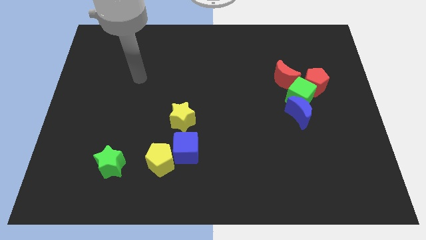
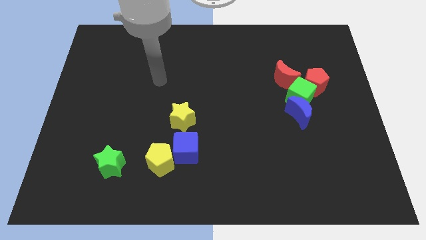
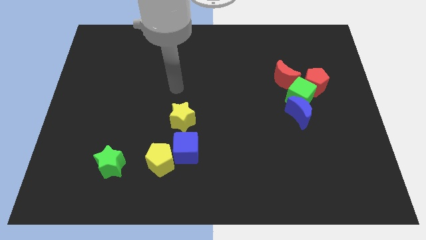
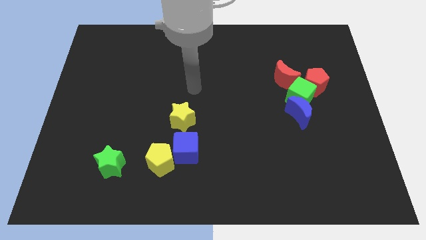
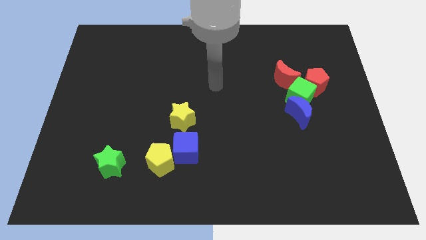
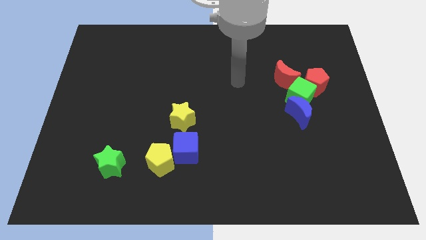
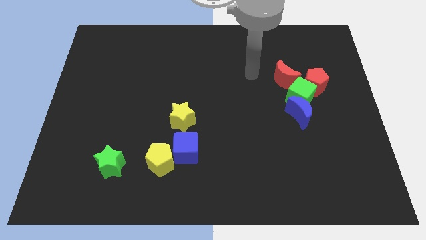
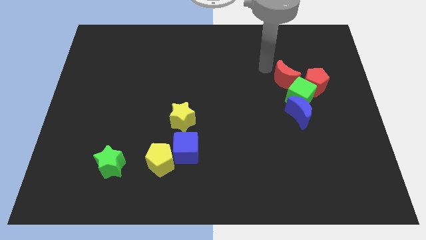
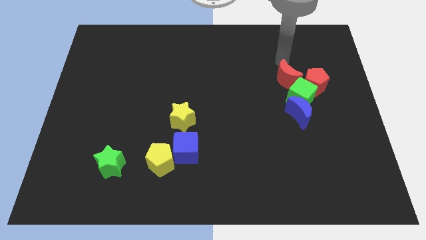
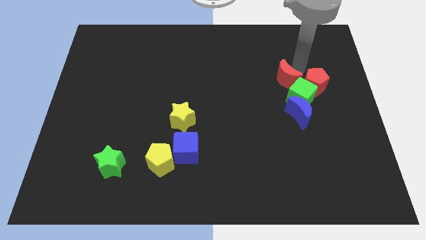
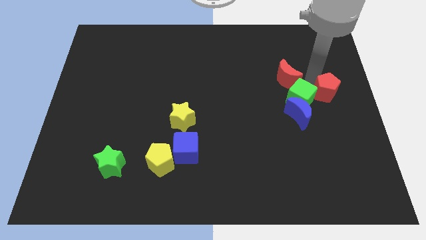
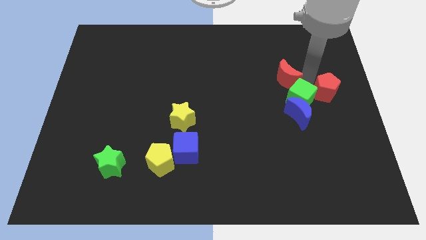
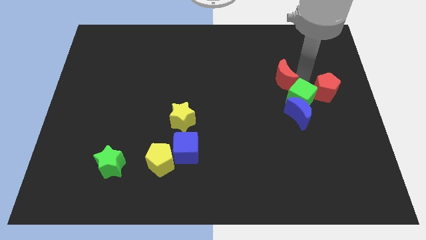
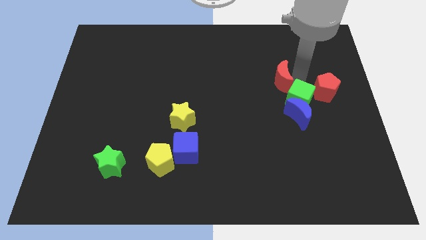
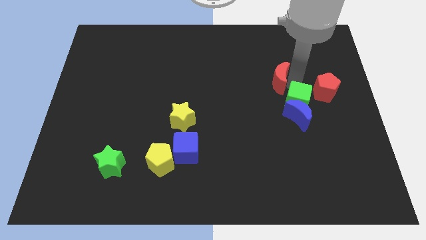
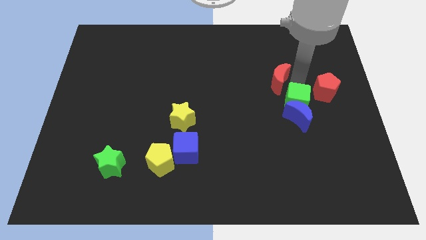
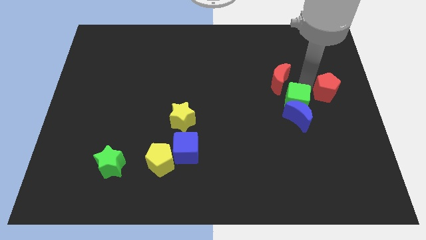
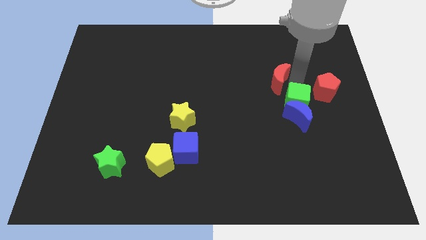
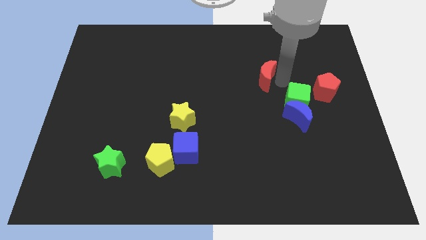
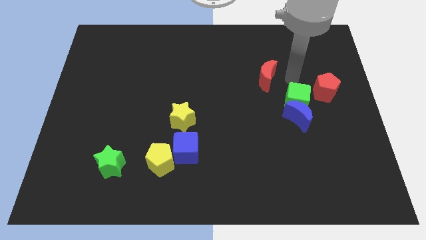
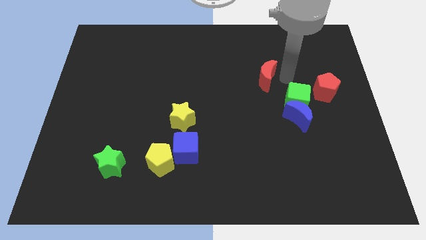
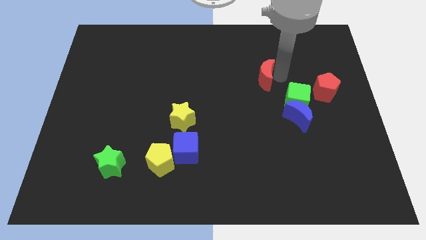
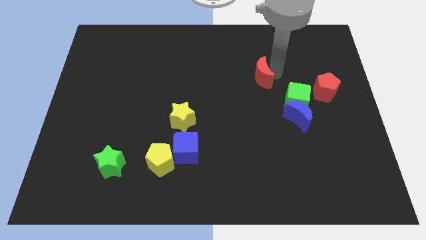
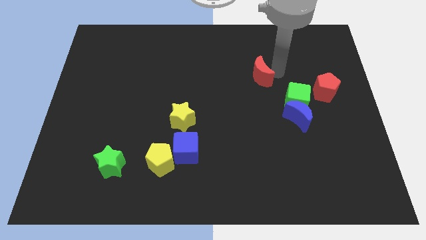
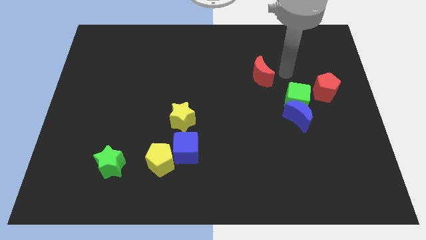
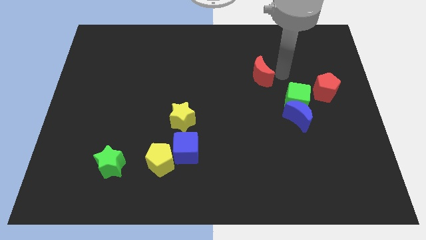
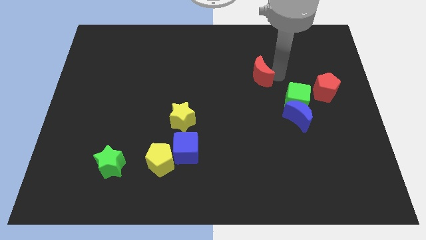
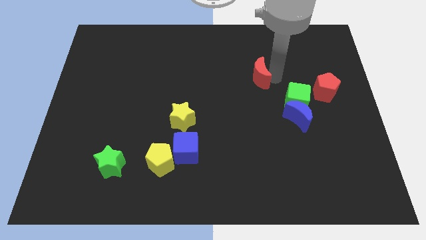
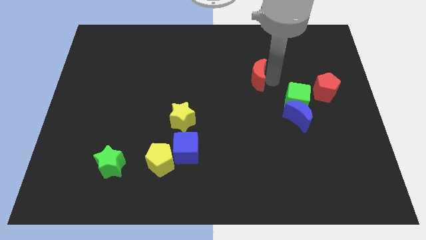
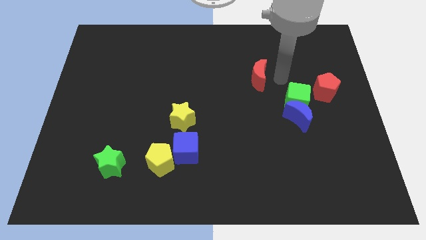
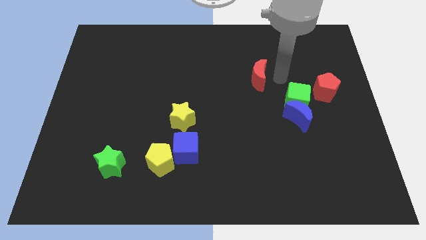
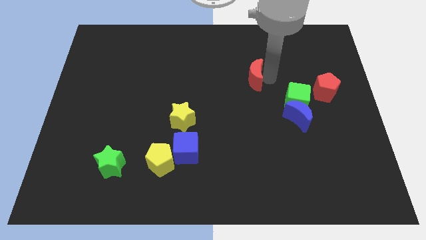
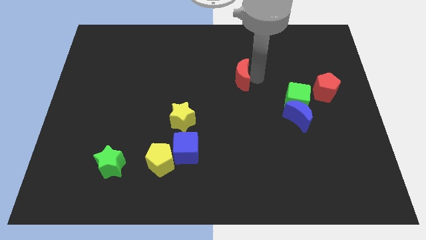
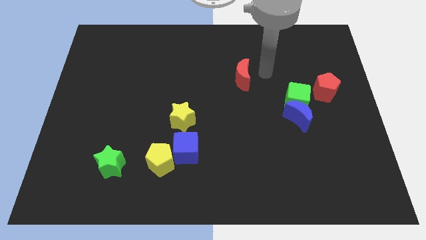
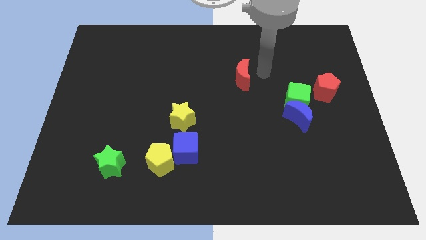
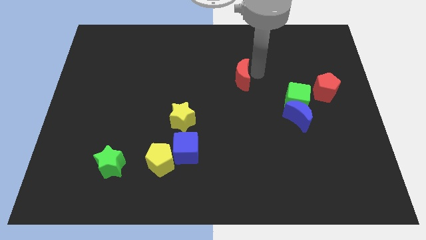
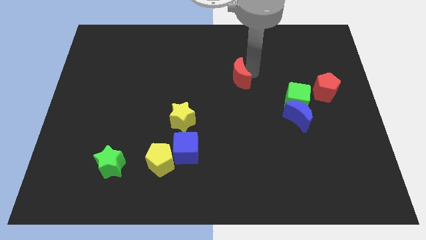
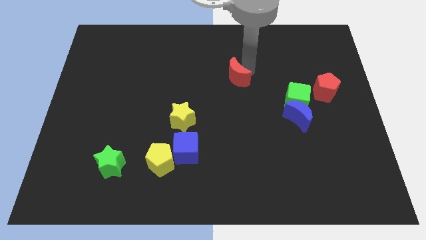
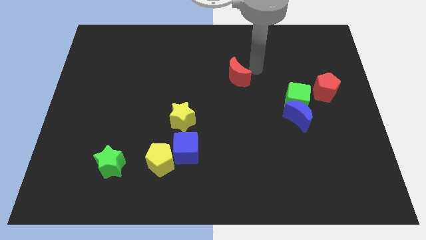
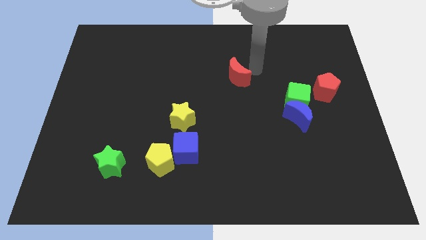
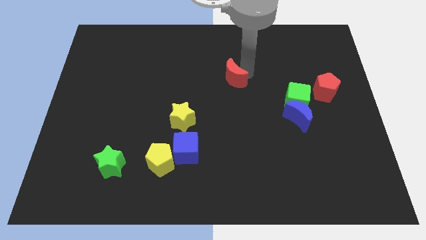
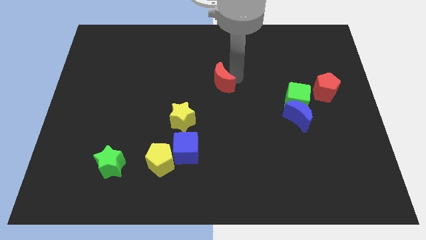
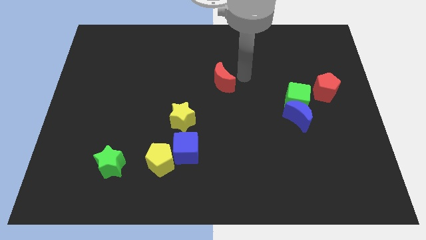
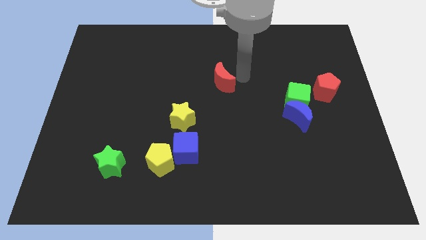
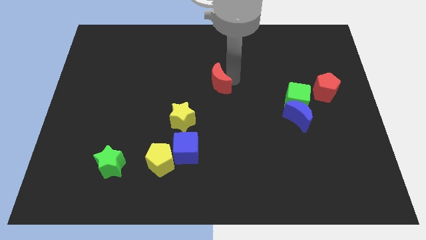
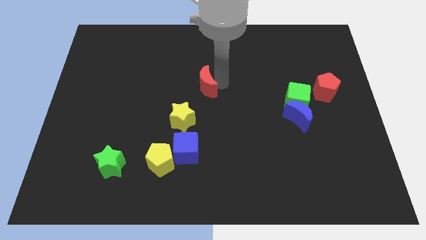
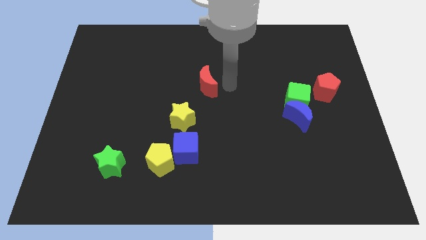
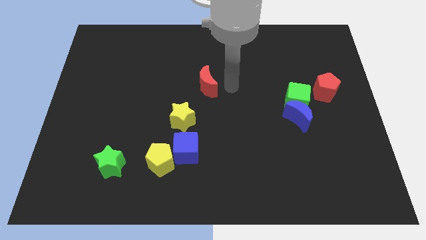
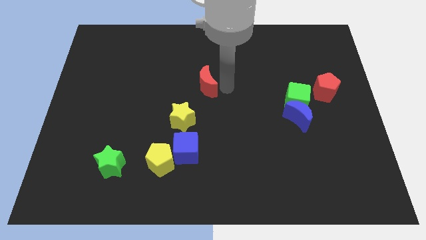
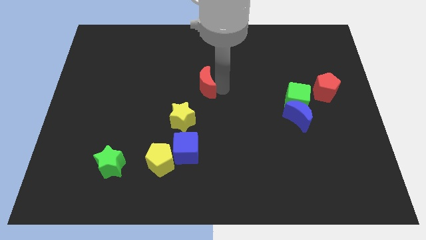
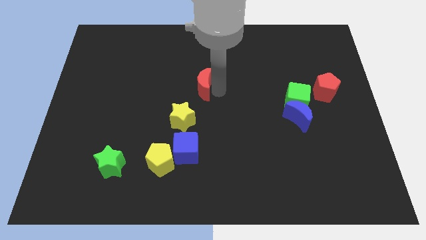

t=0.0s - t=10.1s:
slide the red moon left

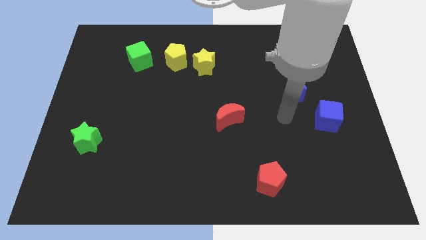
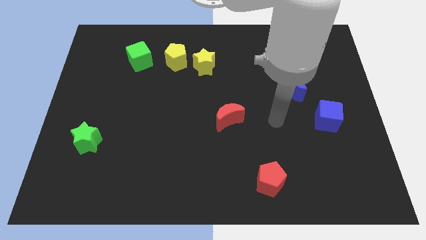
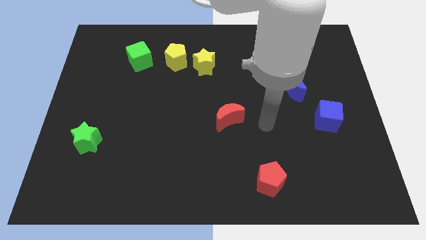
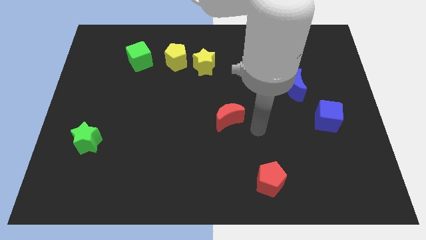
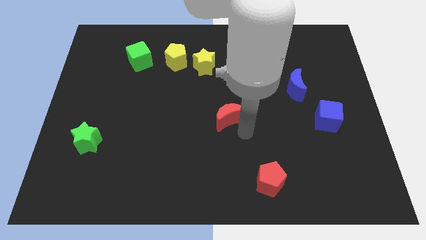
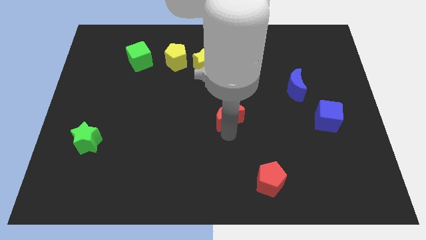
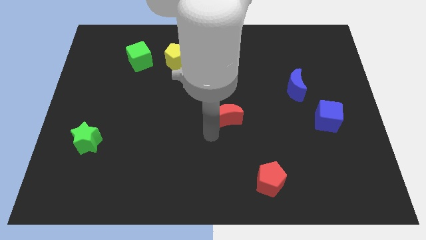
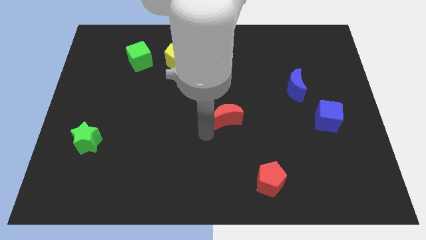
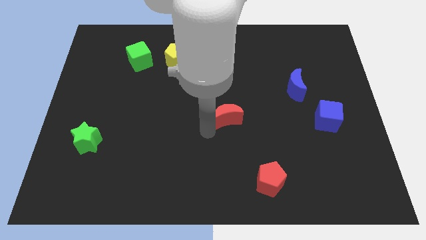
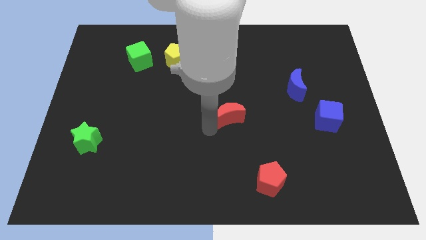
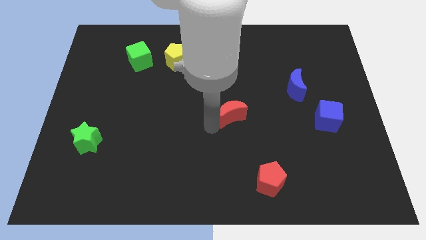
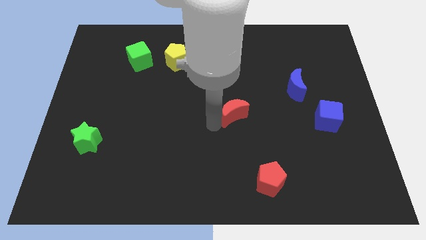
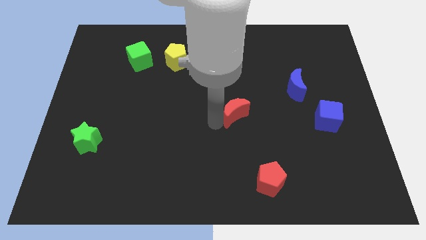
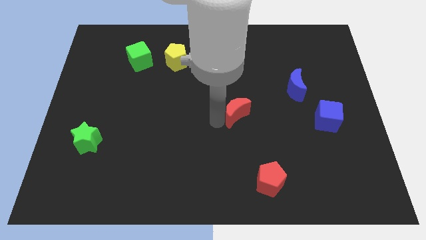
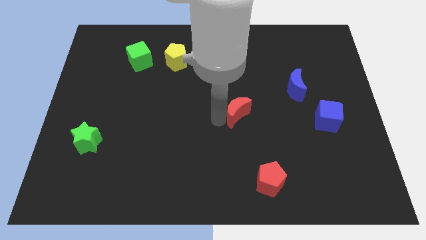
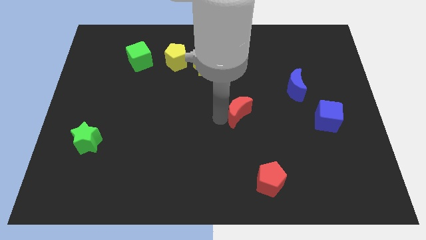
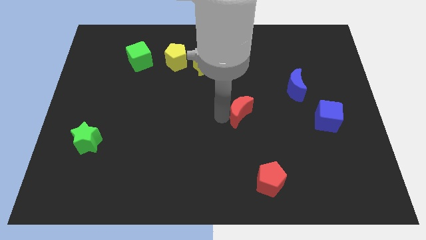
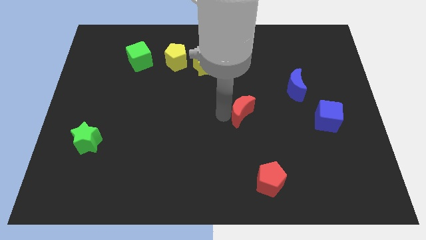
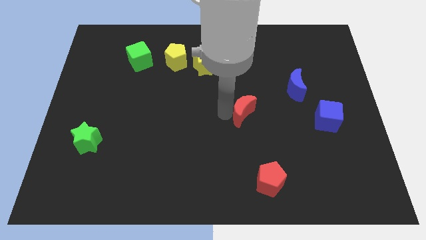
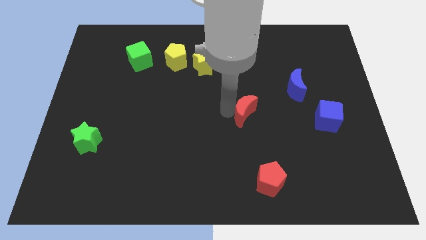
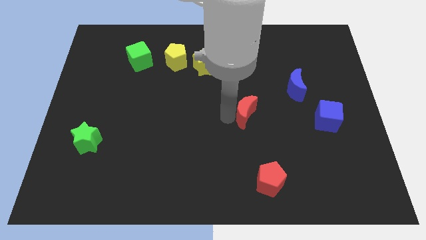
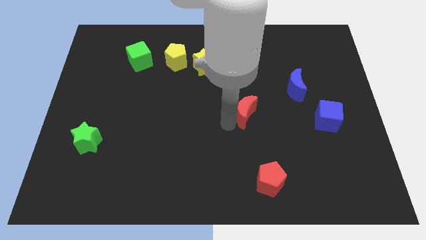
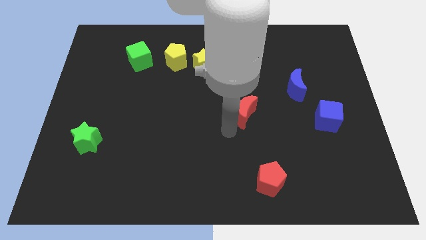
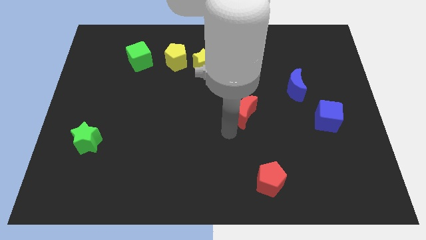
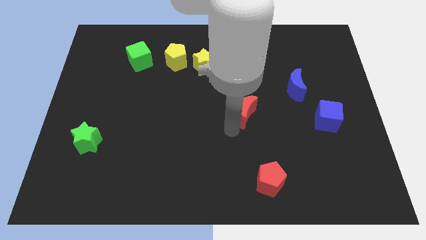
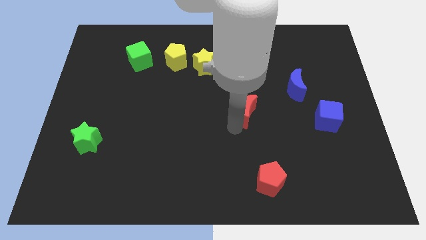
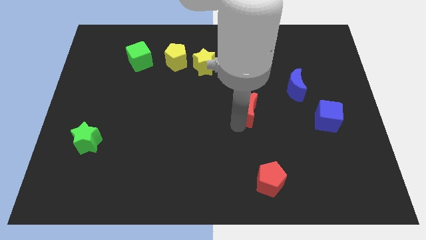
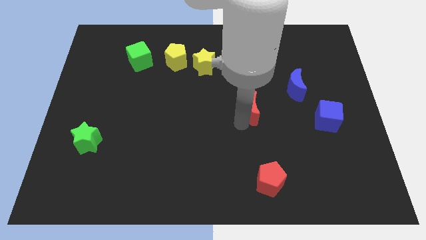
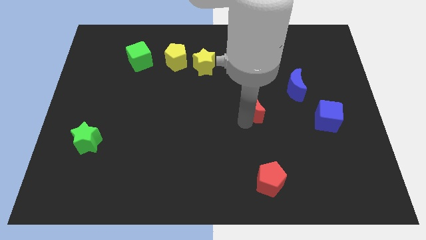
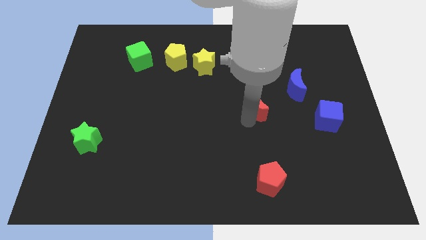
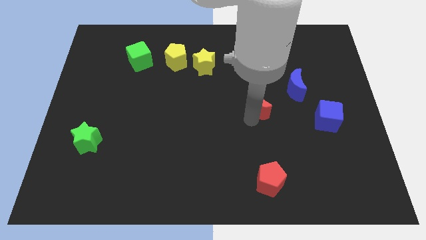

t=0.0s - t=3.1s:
move the red moon upwards and then to the right somewhat
